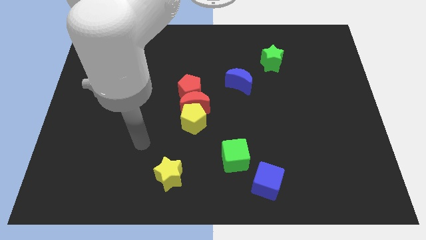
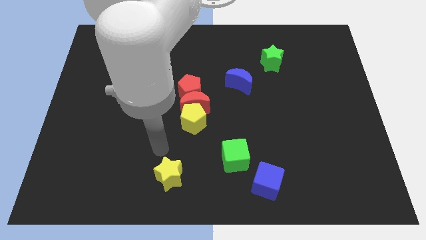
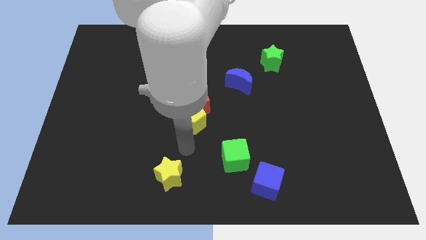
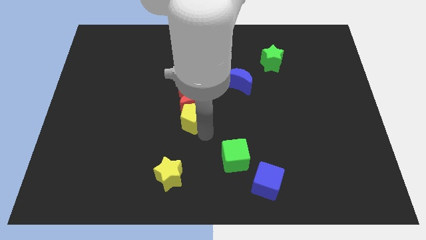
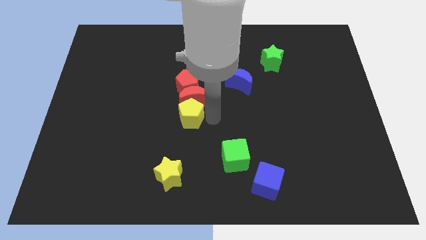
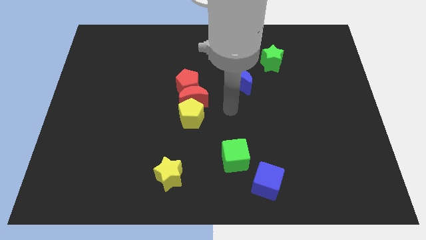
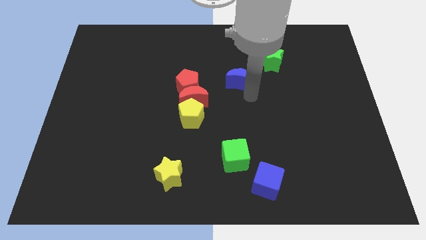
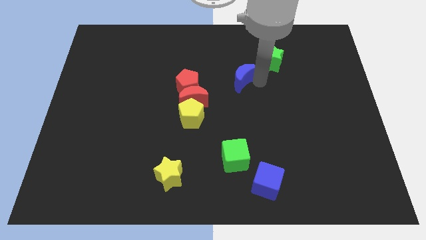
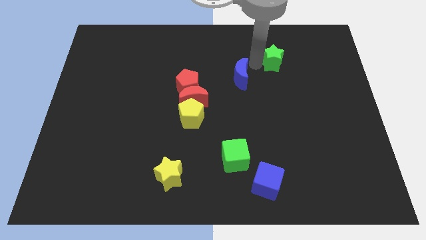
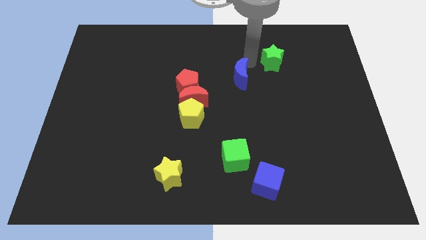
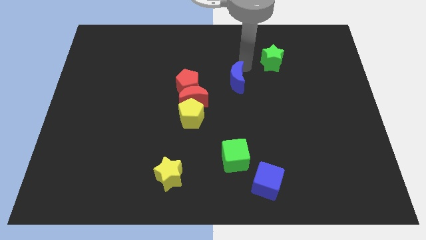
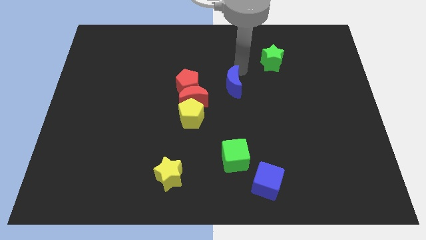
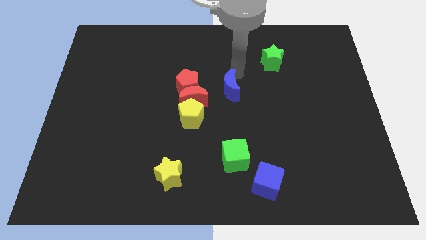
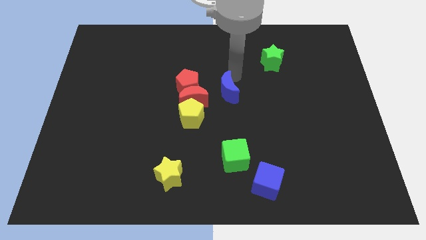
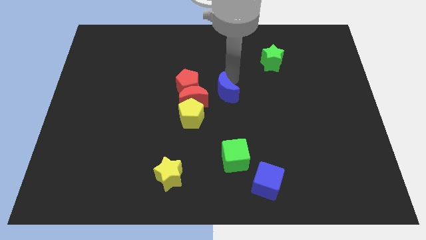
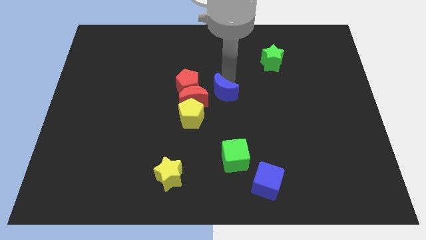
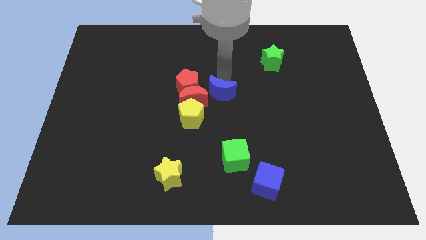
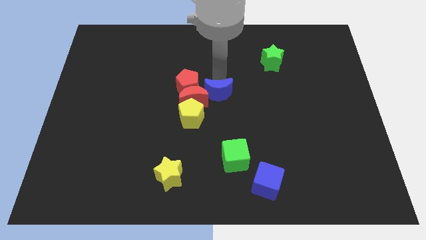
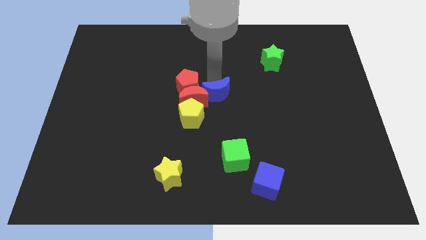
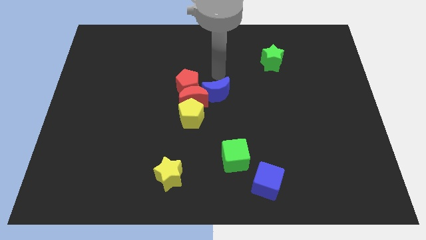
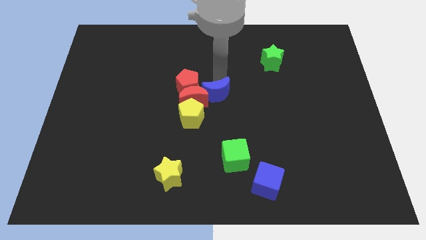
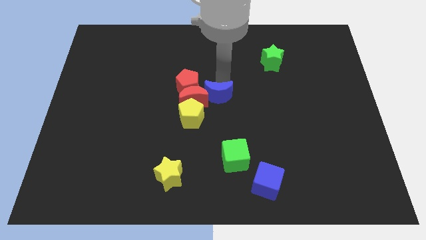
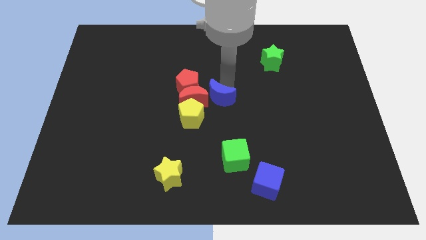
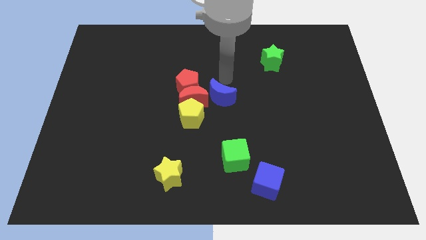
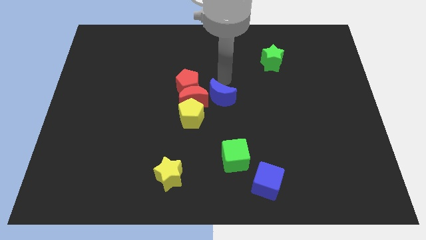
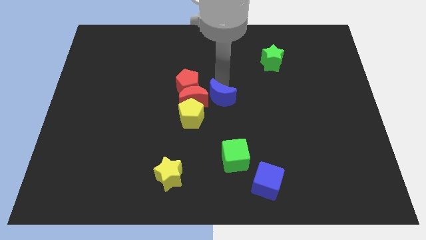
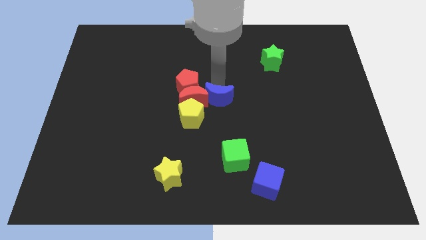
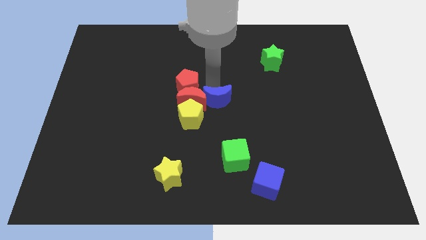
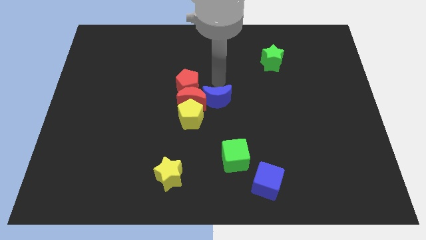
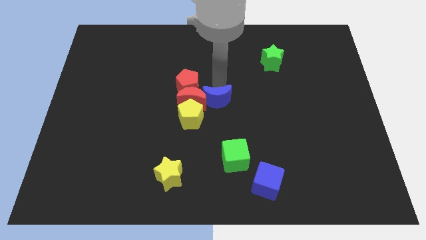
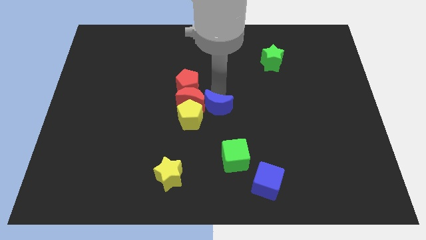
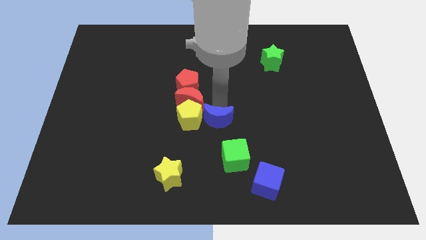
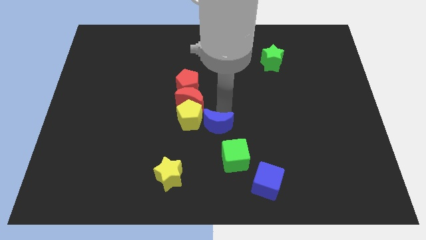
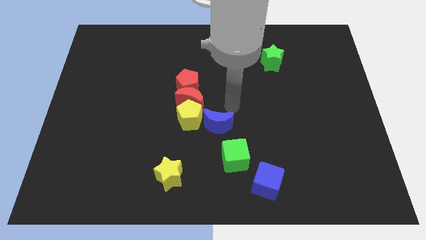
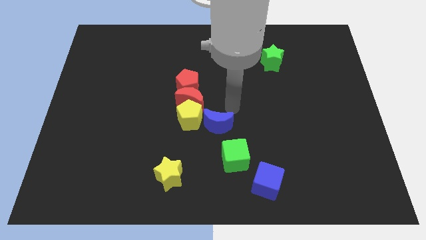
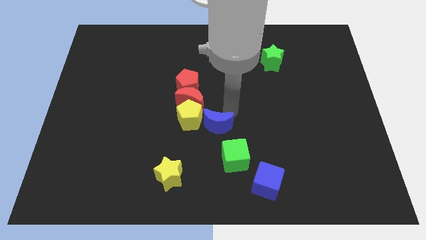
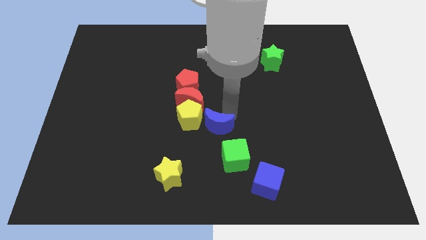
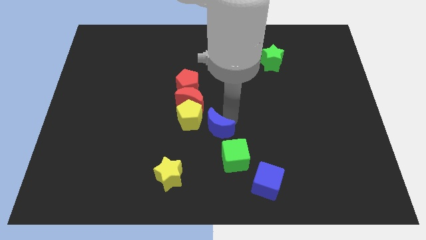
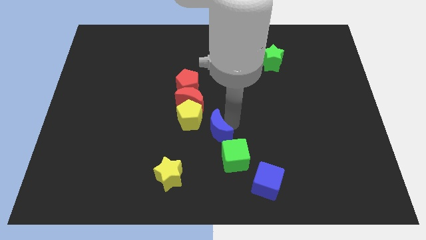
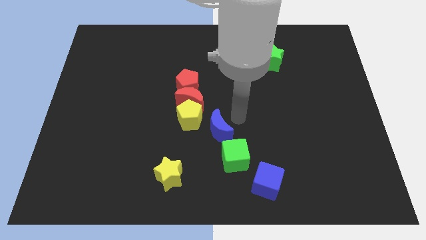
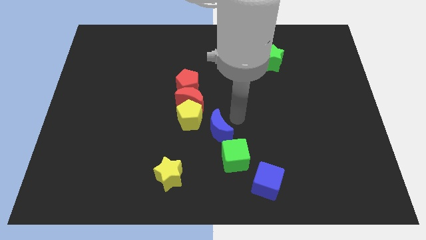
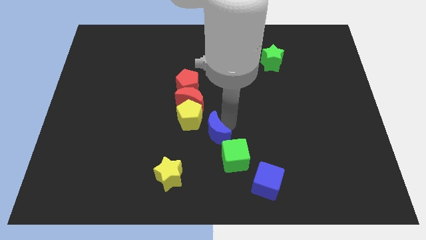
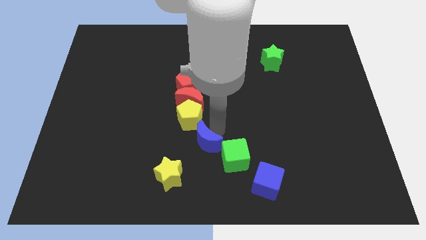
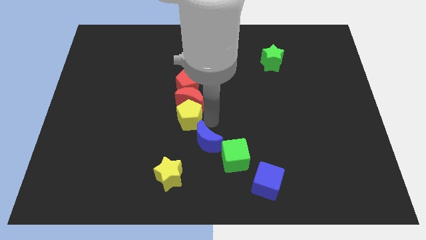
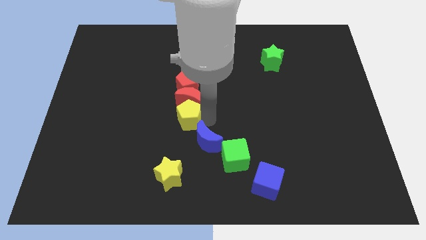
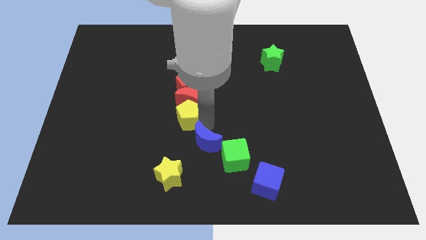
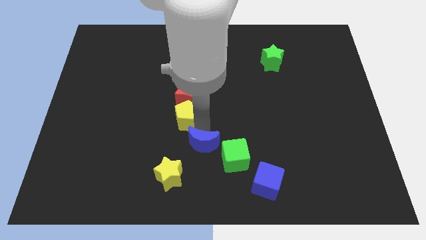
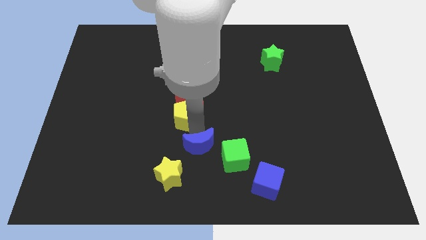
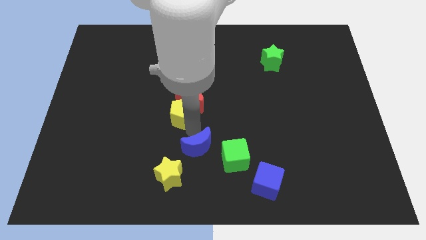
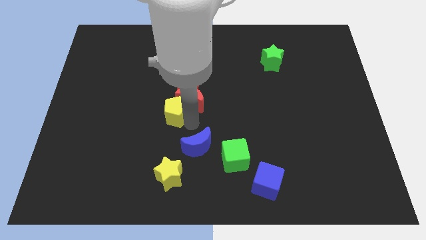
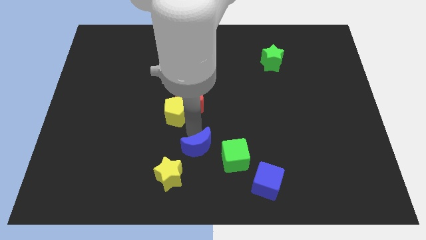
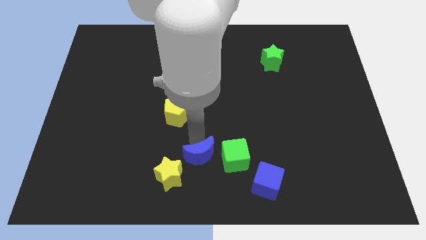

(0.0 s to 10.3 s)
put the blue moon to the bottom

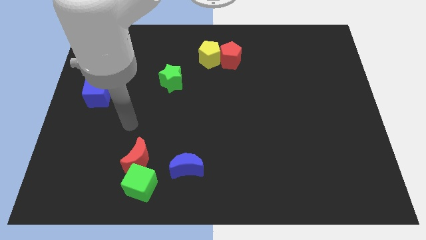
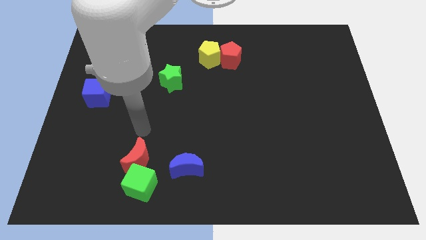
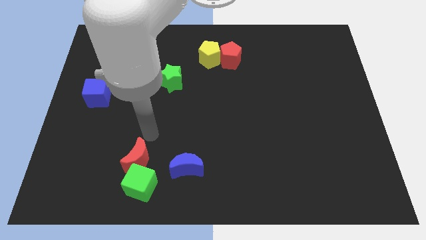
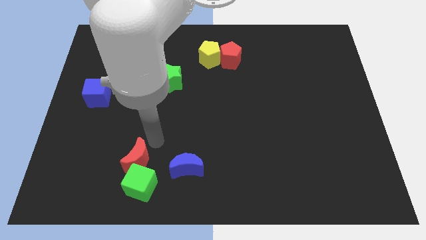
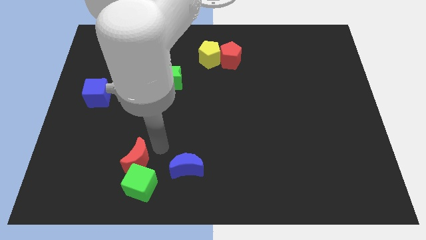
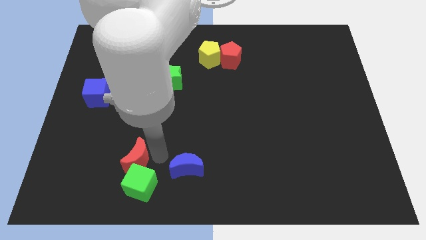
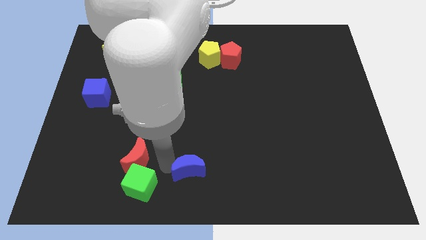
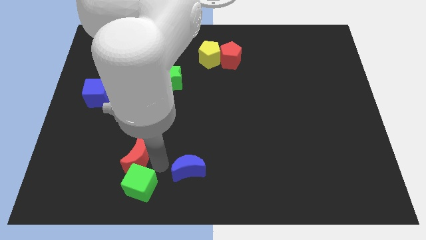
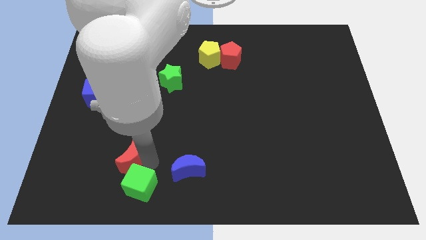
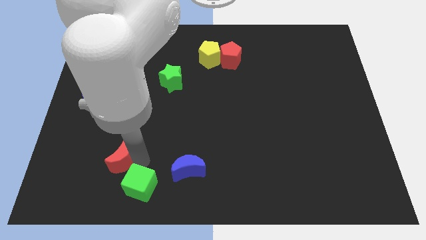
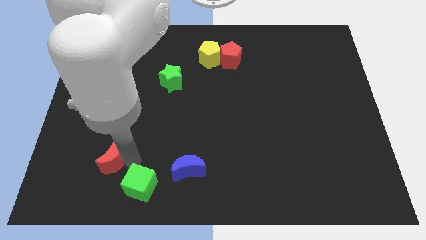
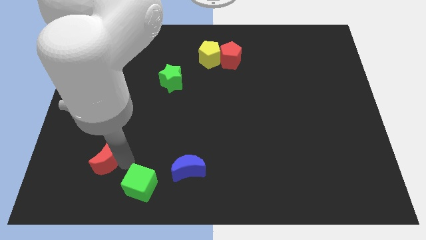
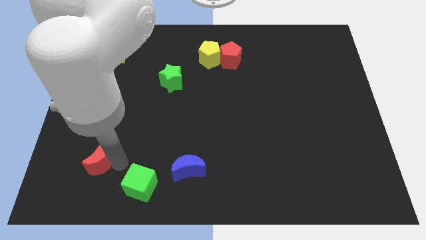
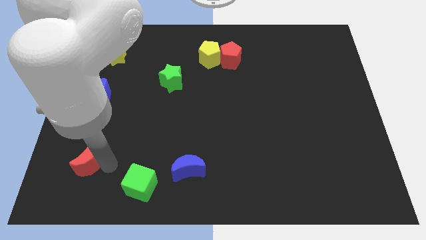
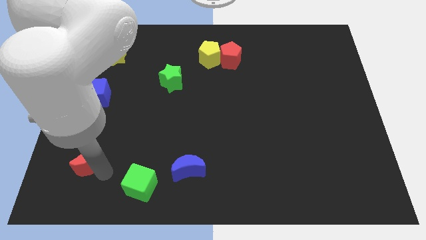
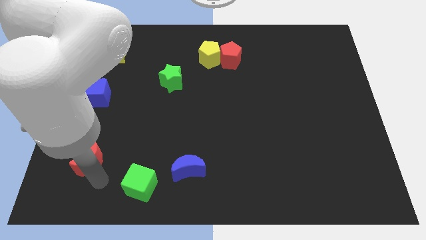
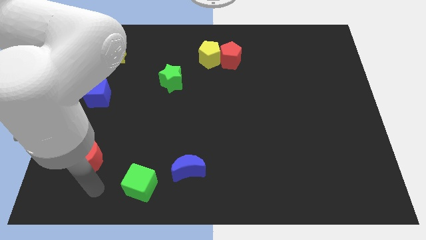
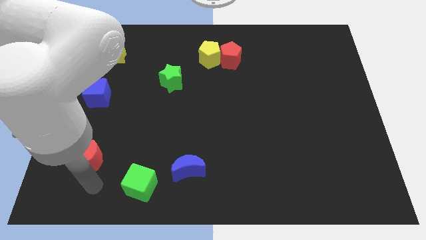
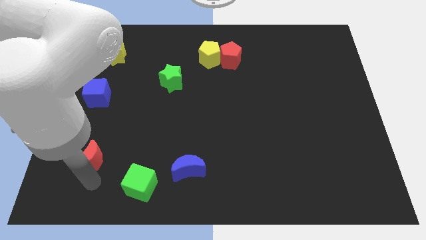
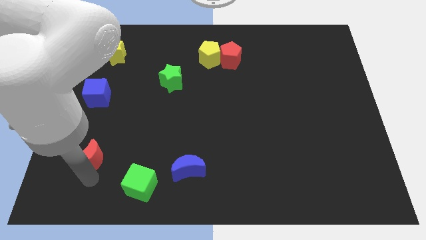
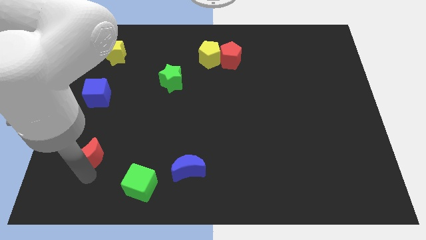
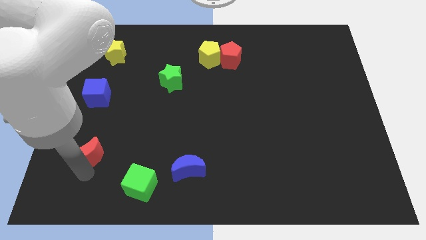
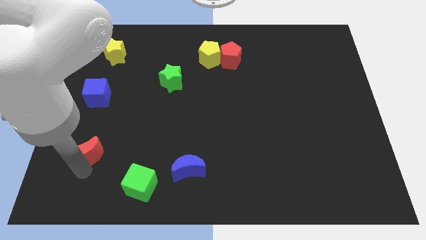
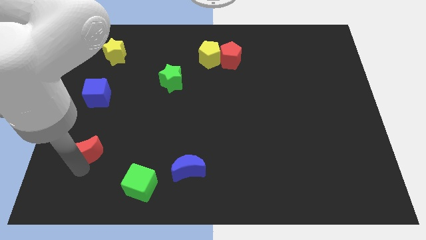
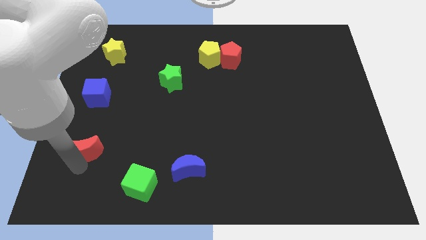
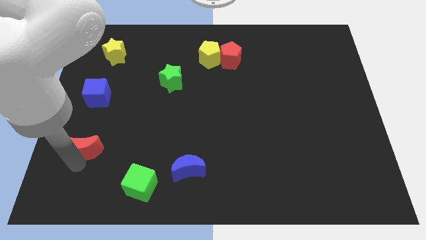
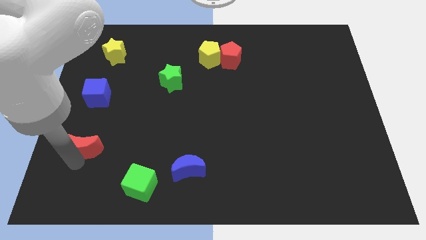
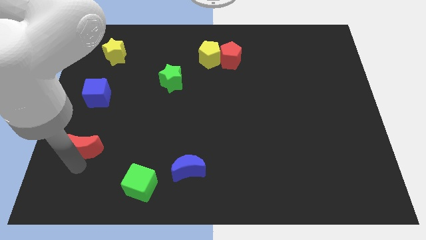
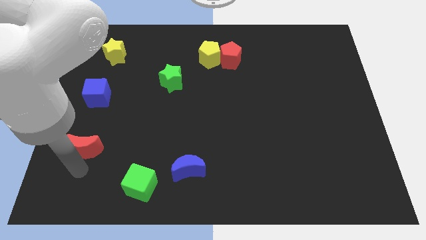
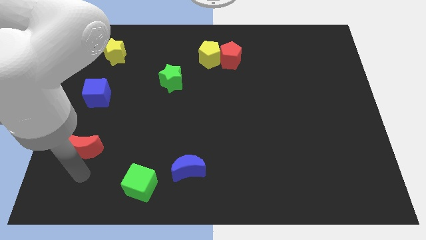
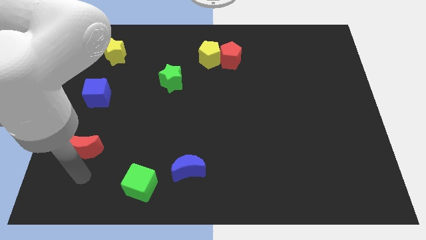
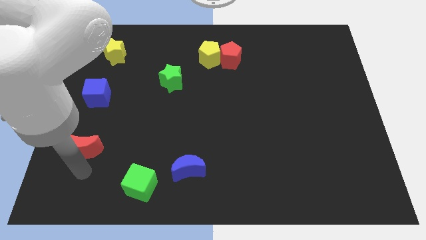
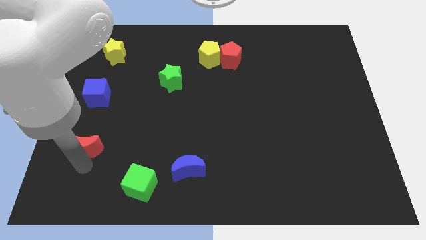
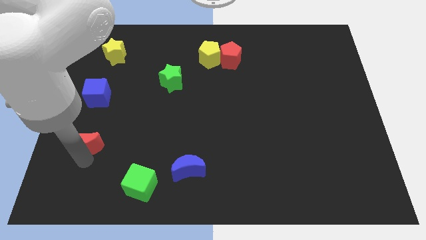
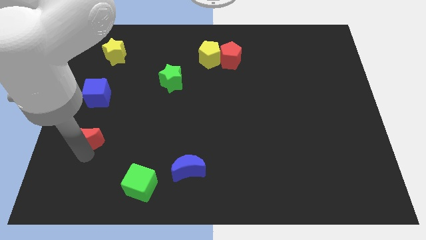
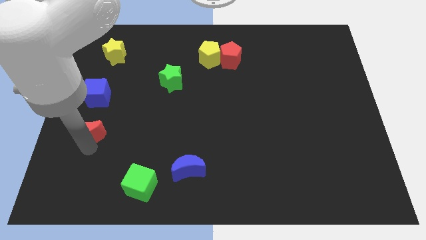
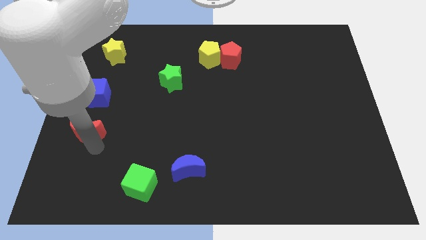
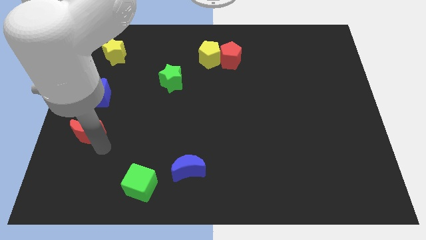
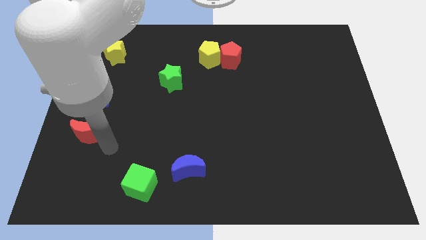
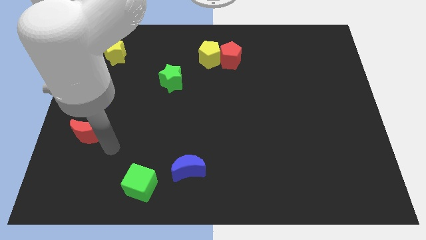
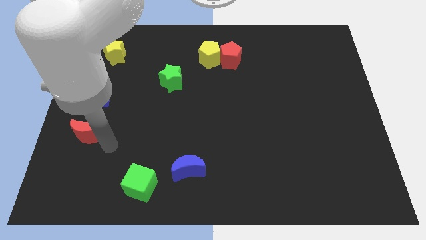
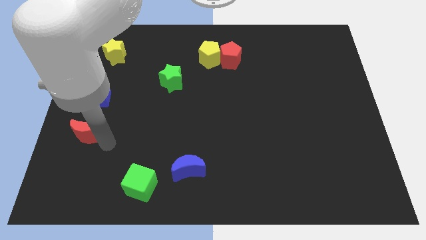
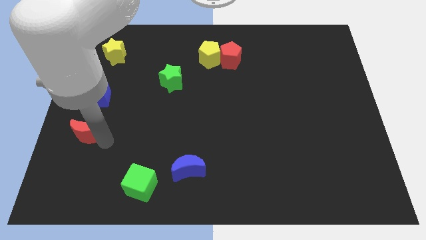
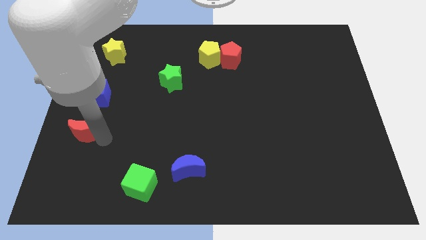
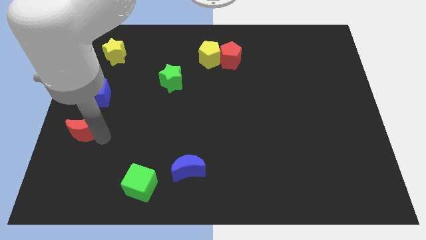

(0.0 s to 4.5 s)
slide the red moon to the left side
